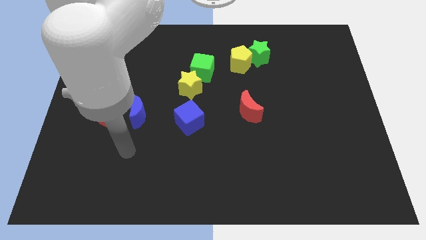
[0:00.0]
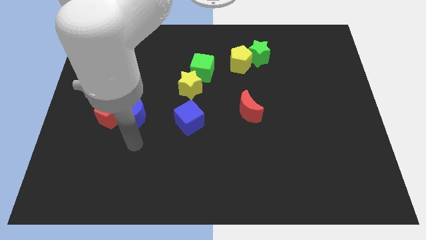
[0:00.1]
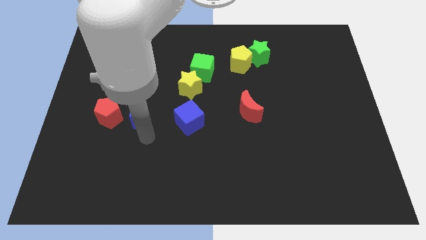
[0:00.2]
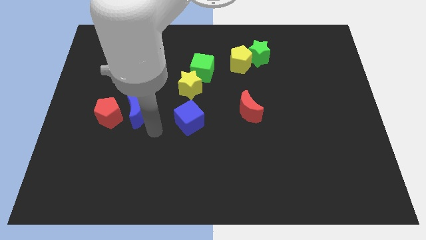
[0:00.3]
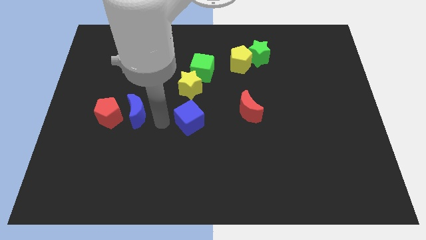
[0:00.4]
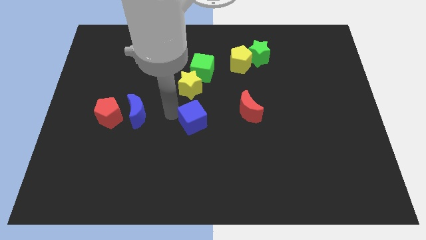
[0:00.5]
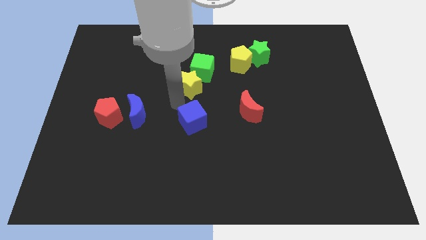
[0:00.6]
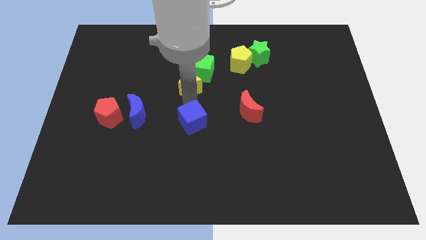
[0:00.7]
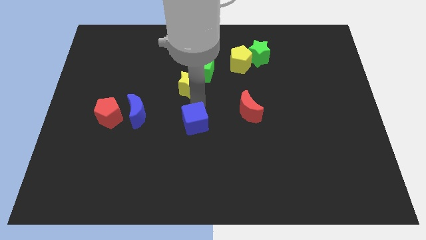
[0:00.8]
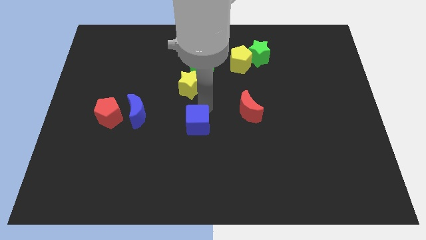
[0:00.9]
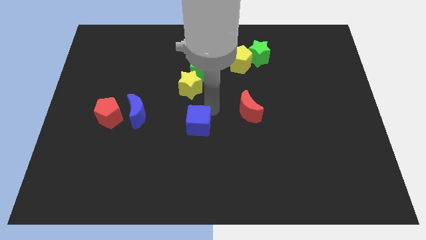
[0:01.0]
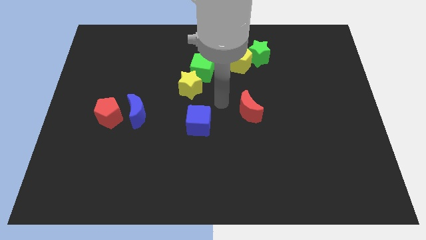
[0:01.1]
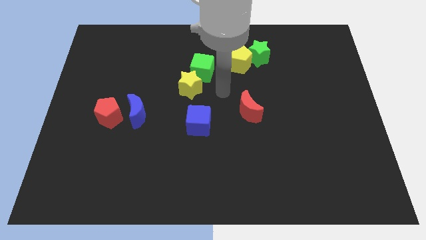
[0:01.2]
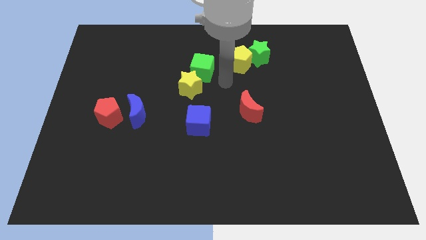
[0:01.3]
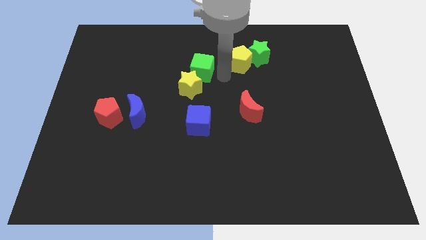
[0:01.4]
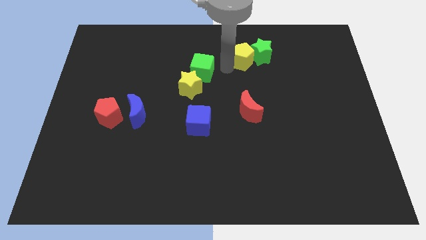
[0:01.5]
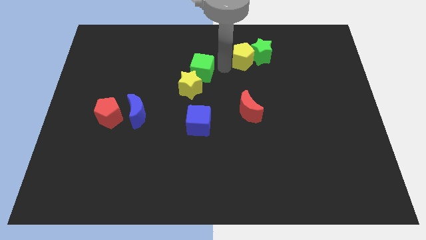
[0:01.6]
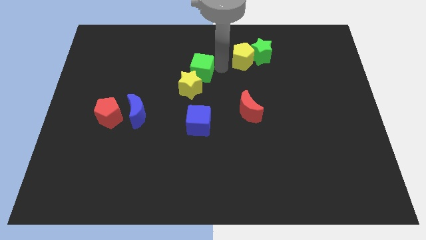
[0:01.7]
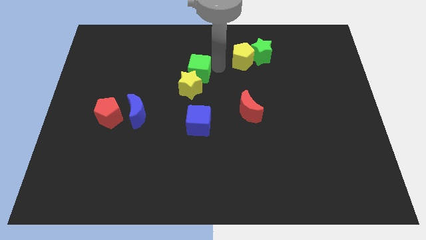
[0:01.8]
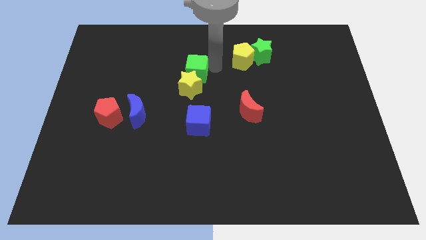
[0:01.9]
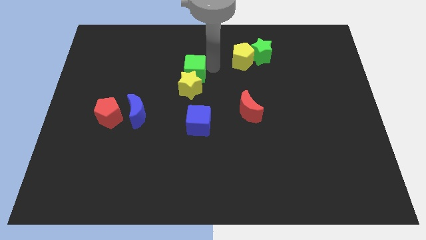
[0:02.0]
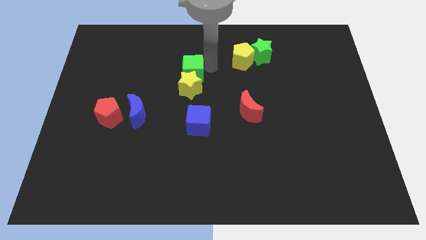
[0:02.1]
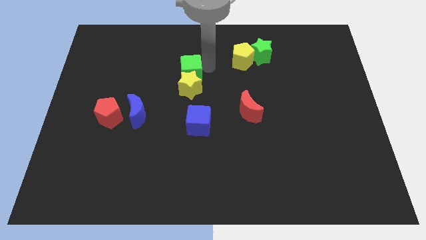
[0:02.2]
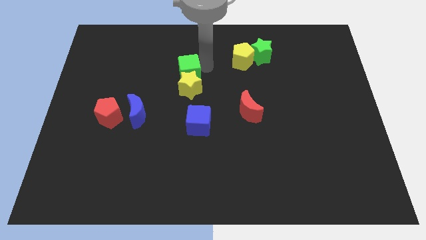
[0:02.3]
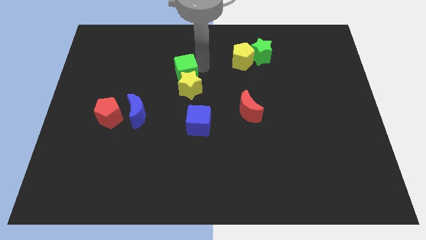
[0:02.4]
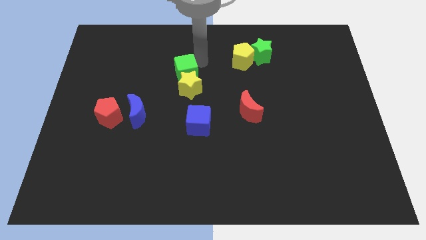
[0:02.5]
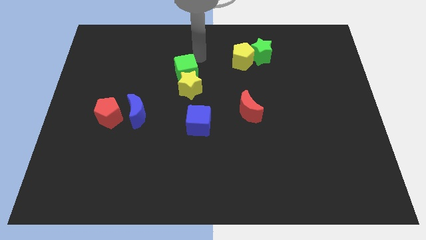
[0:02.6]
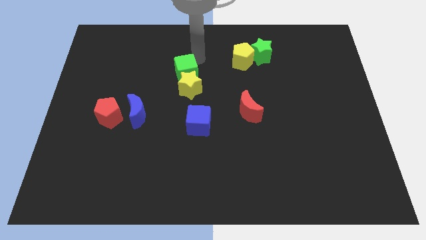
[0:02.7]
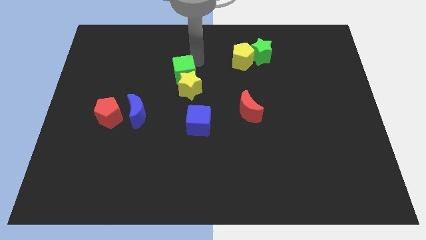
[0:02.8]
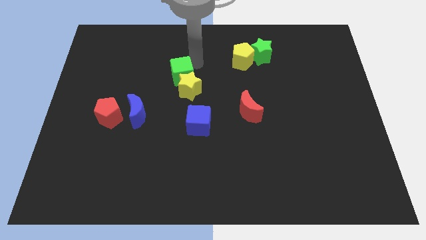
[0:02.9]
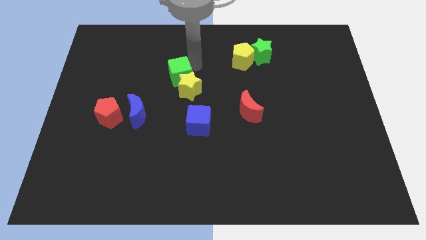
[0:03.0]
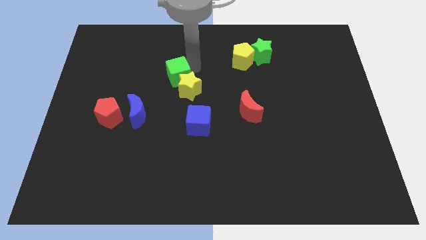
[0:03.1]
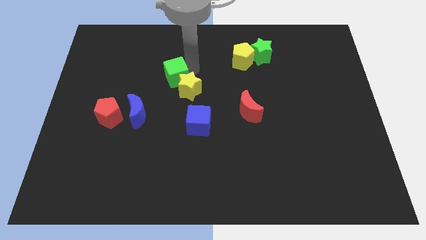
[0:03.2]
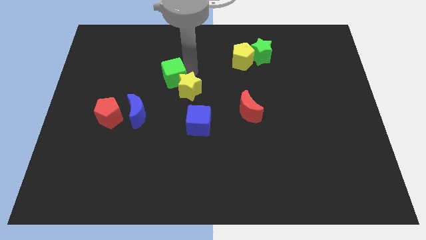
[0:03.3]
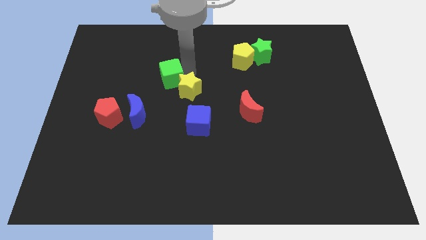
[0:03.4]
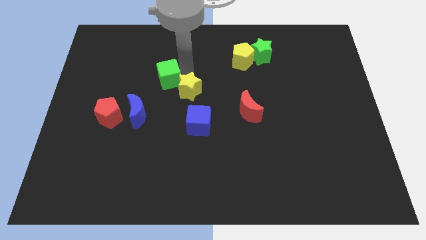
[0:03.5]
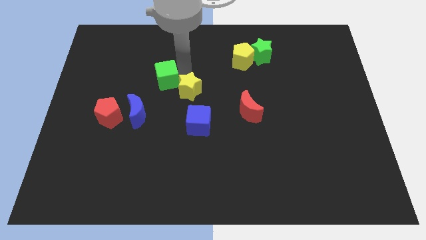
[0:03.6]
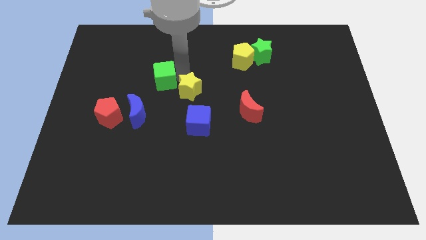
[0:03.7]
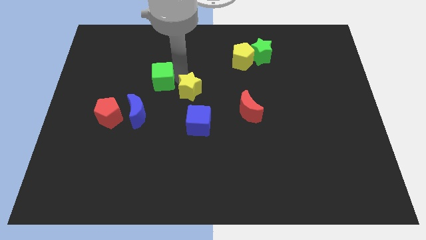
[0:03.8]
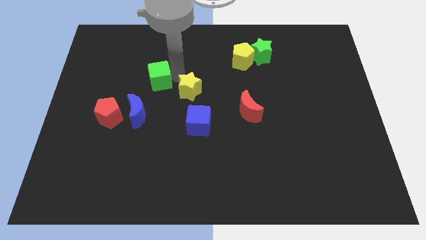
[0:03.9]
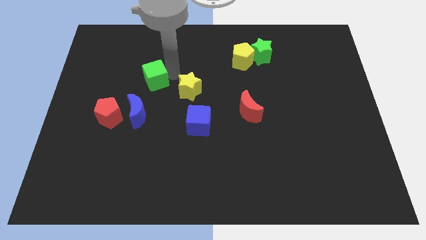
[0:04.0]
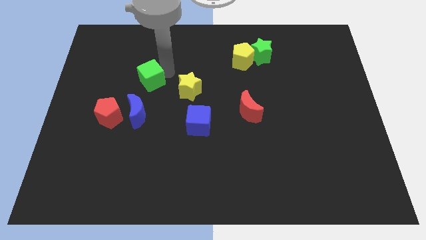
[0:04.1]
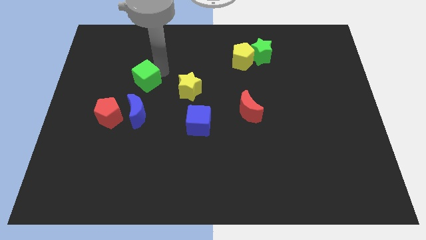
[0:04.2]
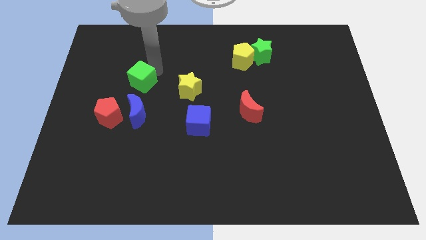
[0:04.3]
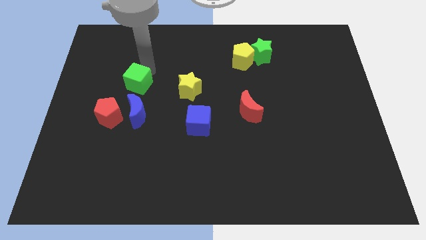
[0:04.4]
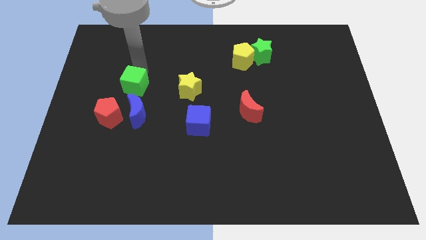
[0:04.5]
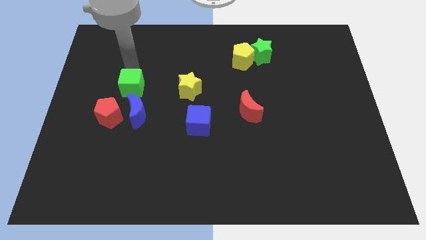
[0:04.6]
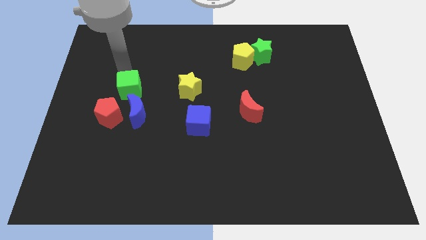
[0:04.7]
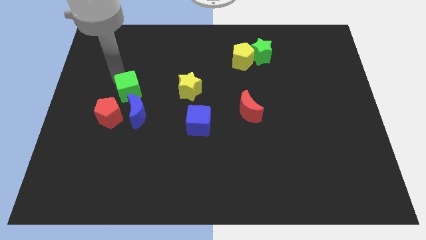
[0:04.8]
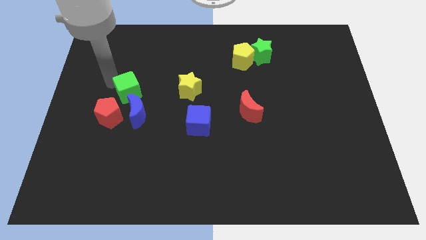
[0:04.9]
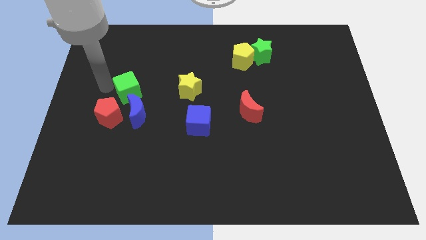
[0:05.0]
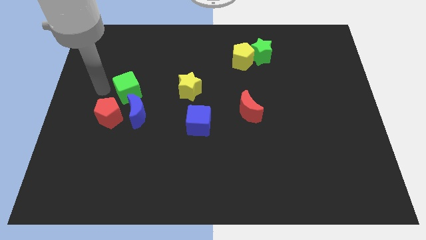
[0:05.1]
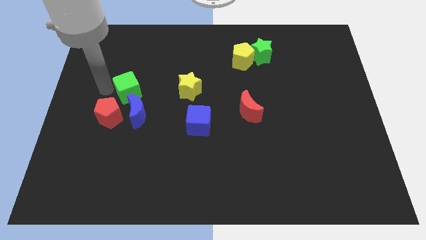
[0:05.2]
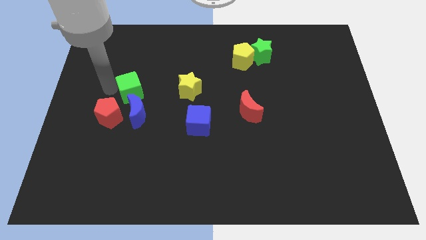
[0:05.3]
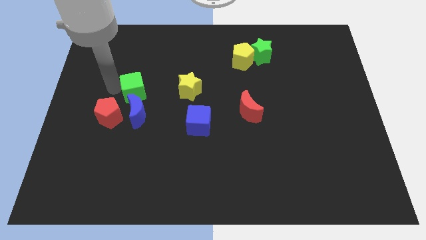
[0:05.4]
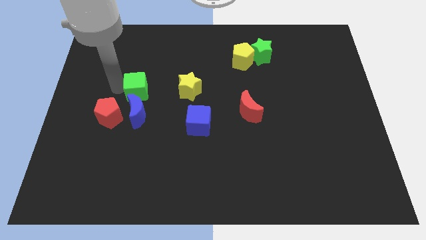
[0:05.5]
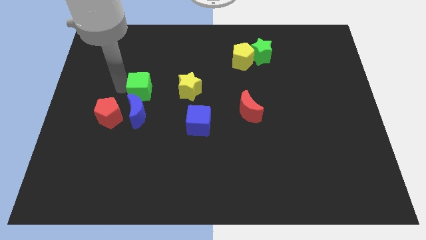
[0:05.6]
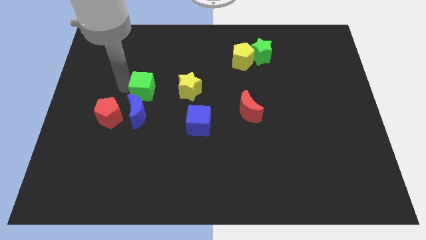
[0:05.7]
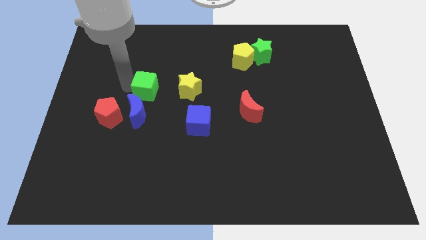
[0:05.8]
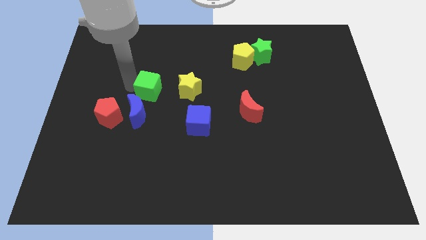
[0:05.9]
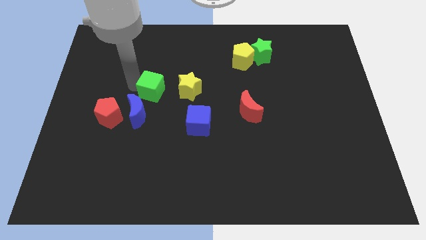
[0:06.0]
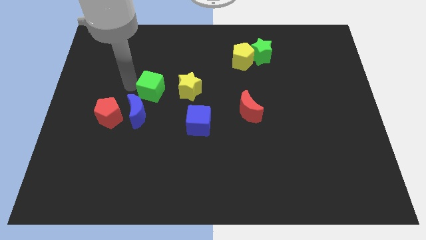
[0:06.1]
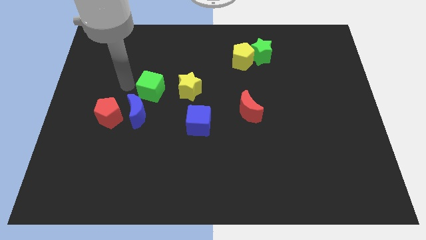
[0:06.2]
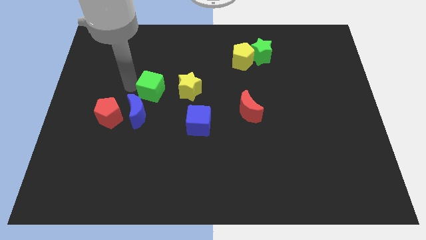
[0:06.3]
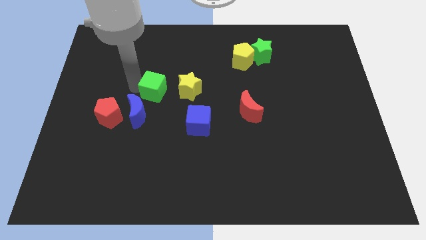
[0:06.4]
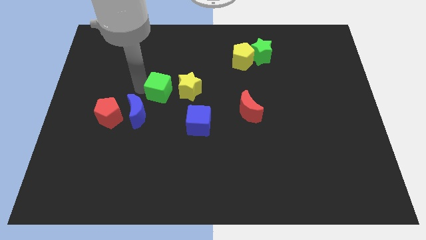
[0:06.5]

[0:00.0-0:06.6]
push the green cube to the bottom left of the yellow star
